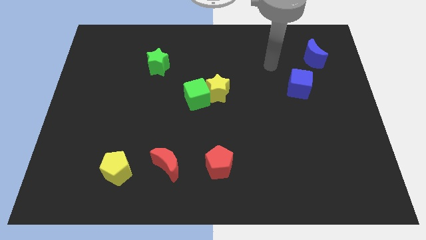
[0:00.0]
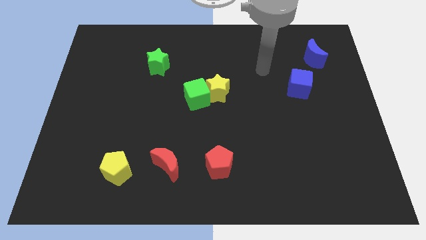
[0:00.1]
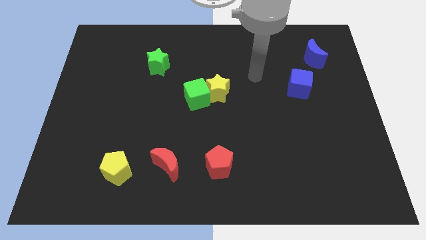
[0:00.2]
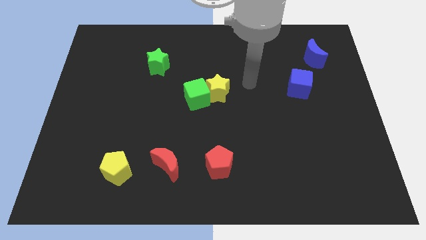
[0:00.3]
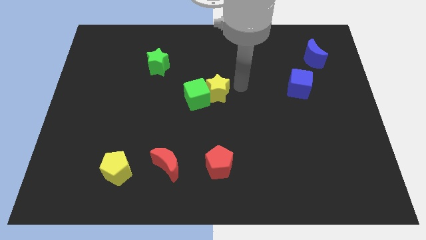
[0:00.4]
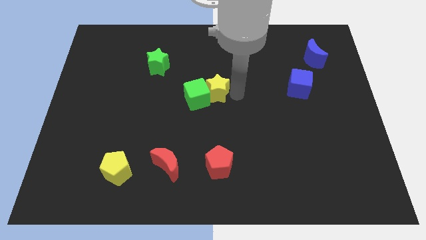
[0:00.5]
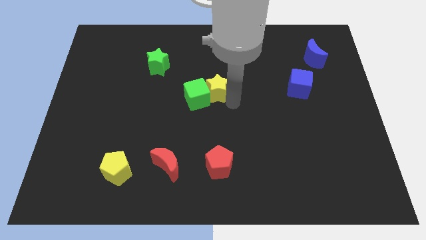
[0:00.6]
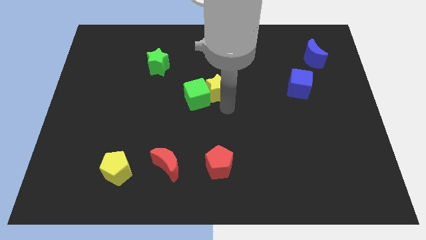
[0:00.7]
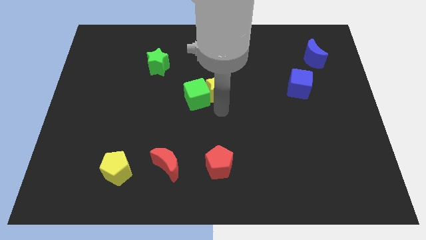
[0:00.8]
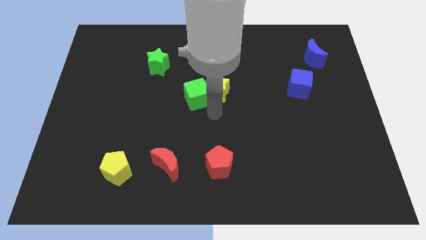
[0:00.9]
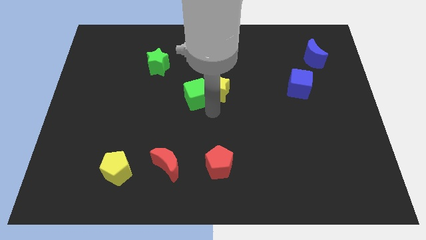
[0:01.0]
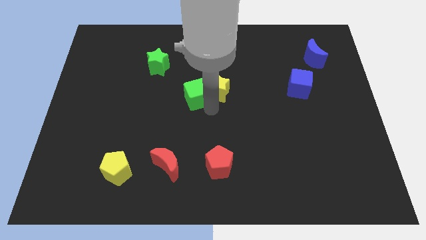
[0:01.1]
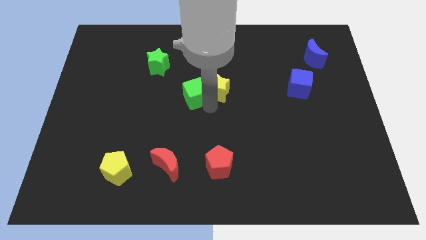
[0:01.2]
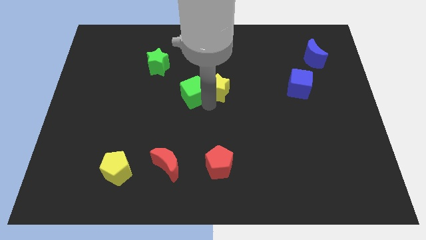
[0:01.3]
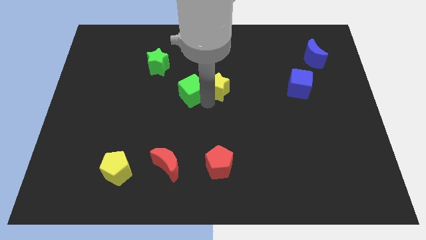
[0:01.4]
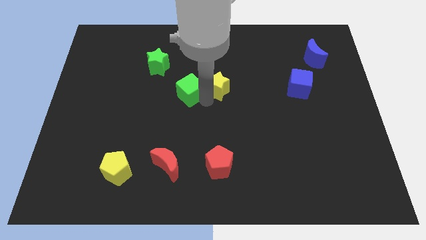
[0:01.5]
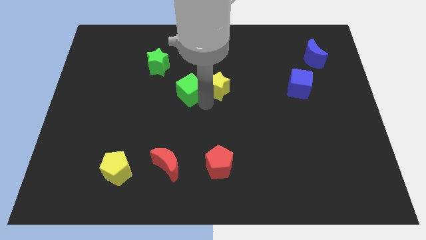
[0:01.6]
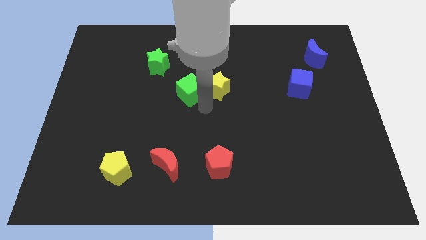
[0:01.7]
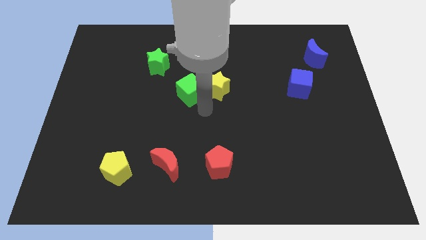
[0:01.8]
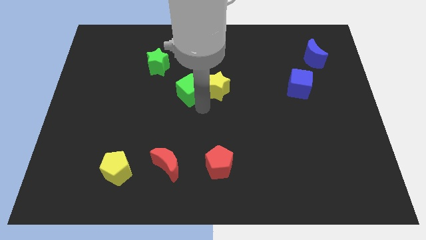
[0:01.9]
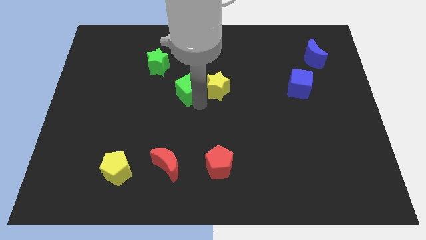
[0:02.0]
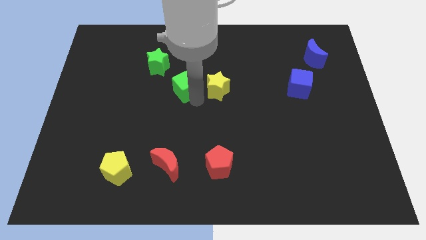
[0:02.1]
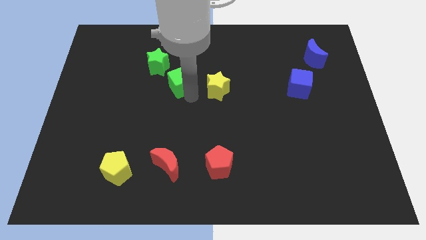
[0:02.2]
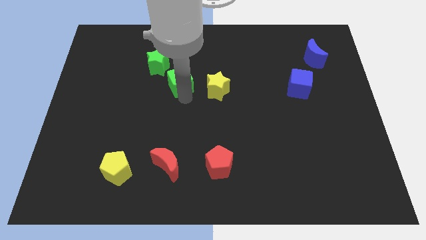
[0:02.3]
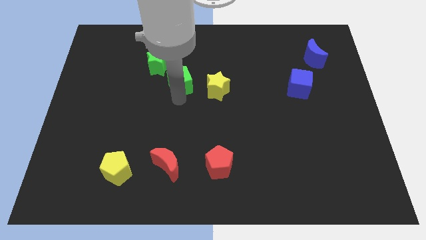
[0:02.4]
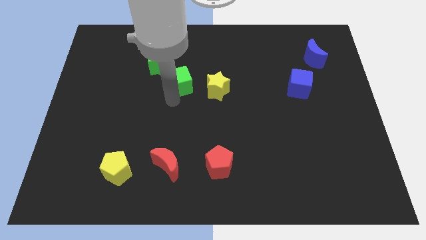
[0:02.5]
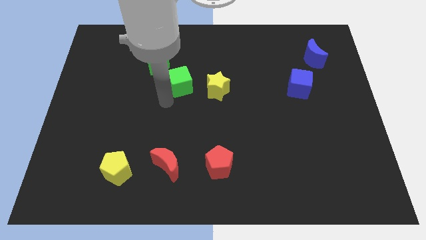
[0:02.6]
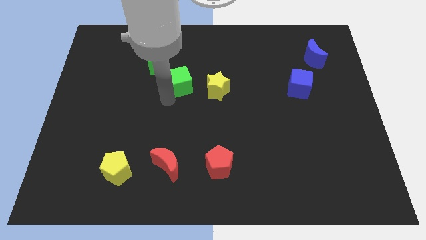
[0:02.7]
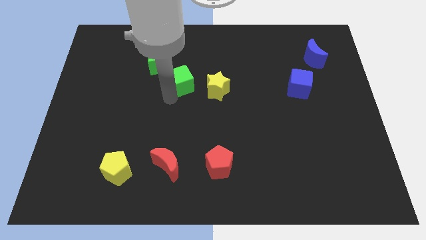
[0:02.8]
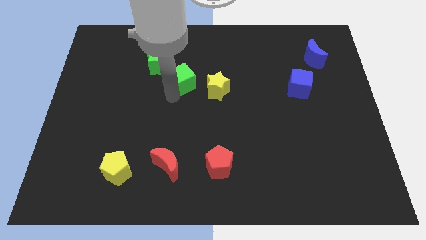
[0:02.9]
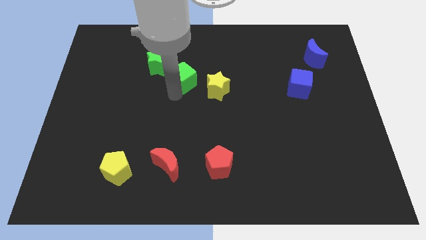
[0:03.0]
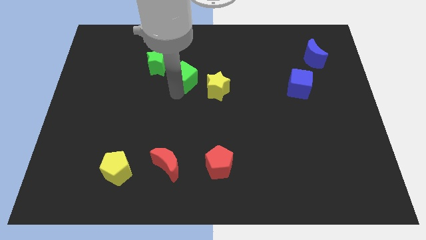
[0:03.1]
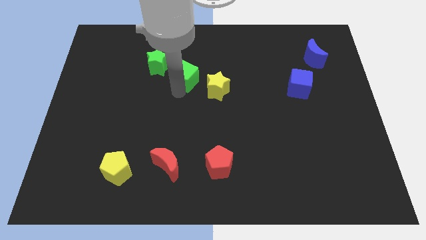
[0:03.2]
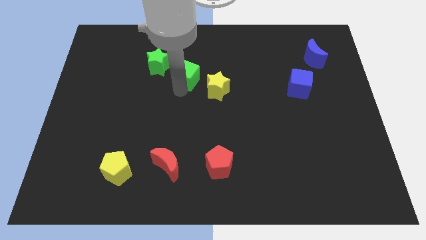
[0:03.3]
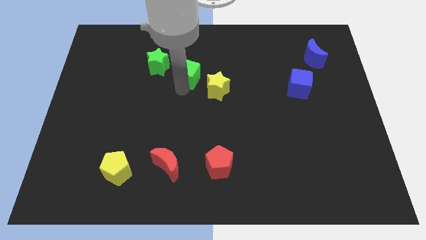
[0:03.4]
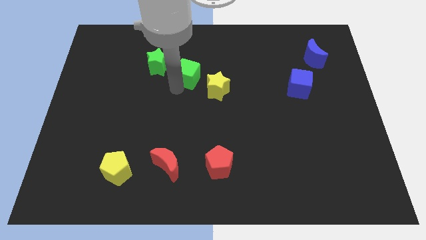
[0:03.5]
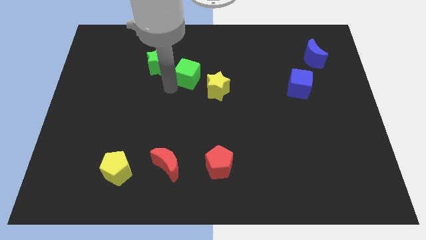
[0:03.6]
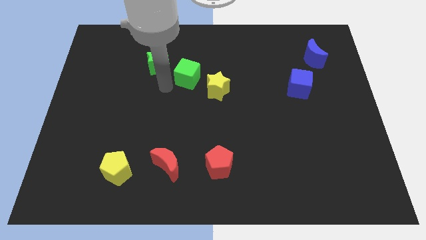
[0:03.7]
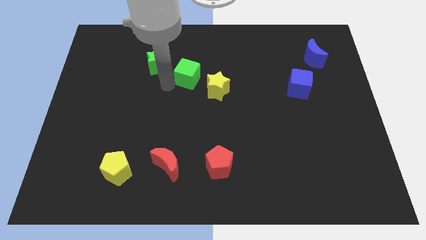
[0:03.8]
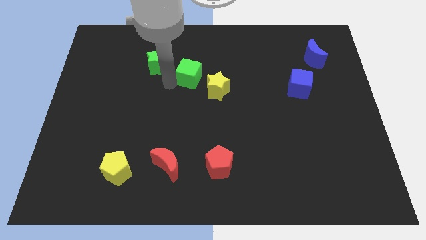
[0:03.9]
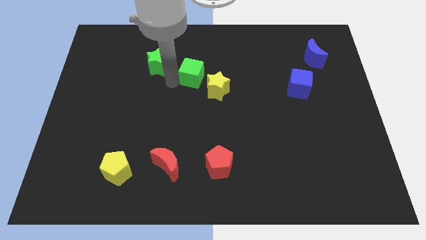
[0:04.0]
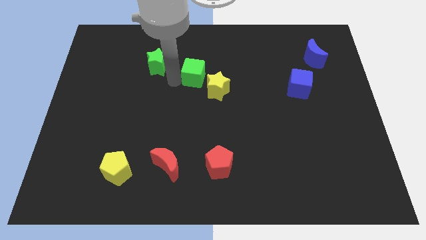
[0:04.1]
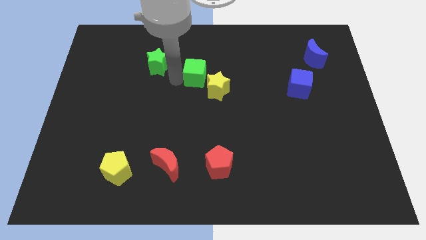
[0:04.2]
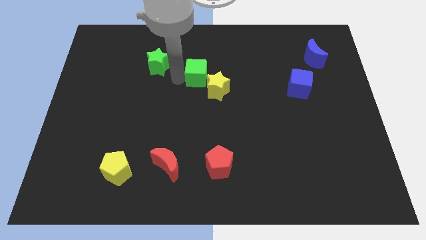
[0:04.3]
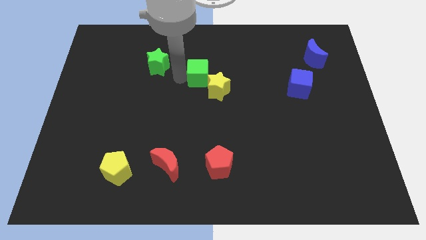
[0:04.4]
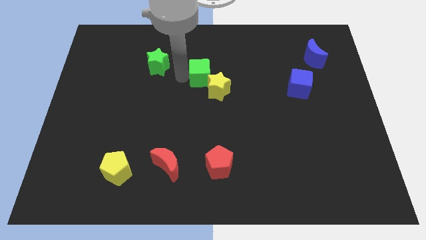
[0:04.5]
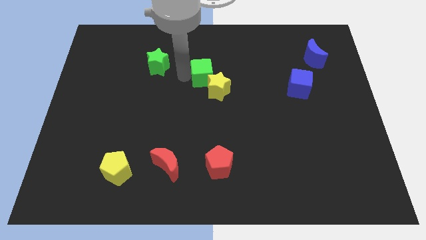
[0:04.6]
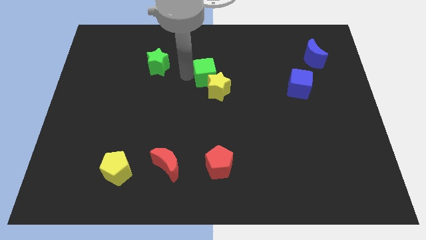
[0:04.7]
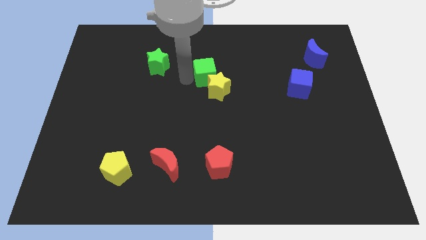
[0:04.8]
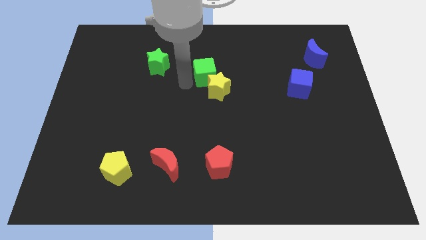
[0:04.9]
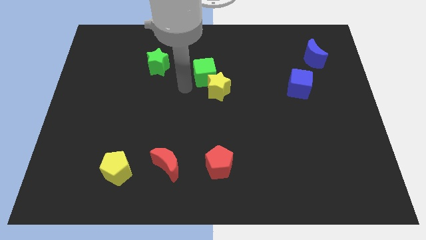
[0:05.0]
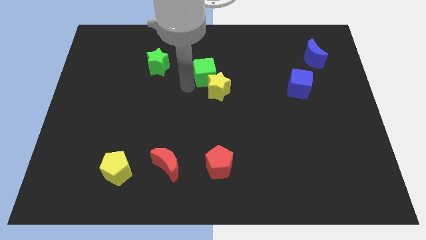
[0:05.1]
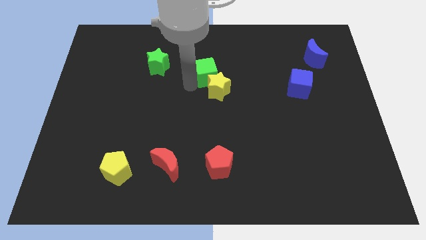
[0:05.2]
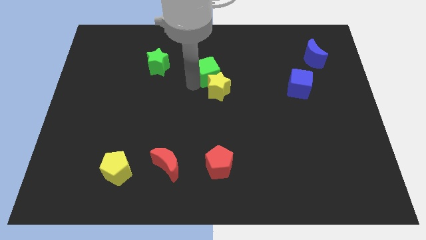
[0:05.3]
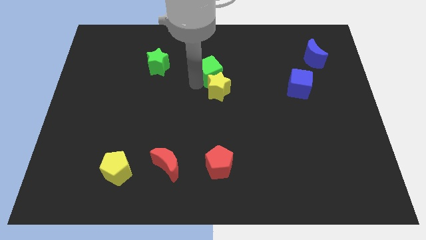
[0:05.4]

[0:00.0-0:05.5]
push the green cube upwards and then to the right a little bit

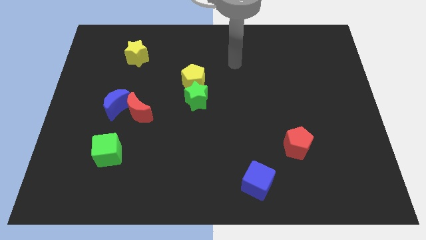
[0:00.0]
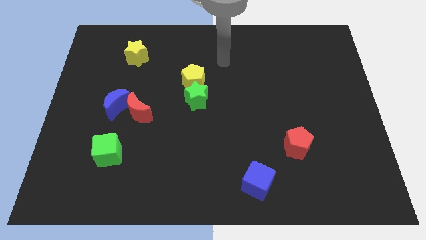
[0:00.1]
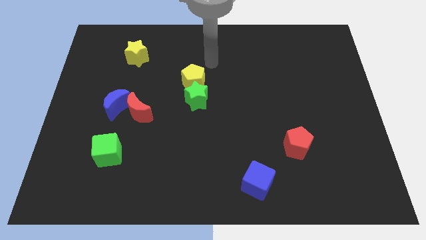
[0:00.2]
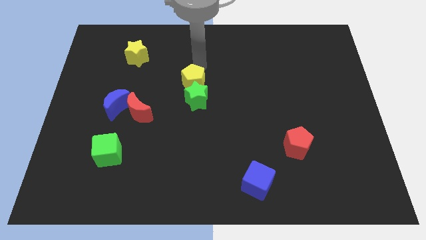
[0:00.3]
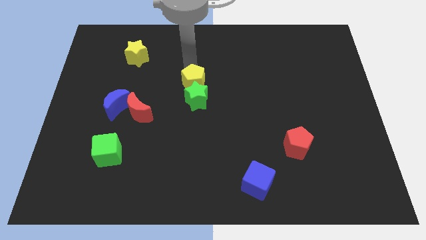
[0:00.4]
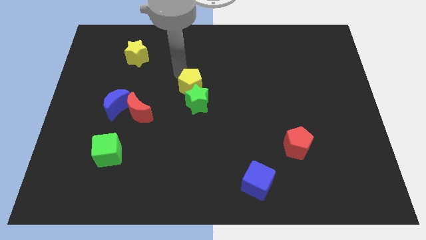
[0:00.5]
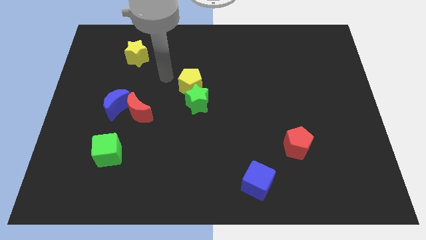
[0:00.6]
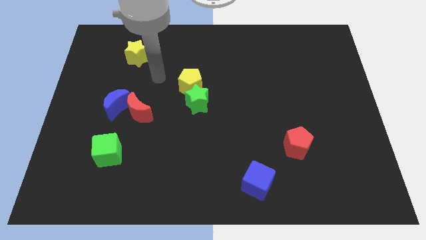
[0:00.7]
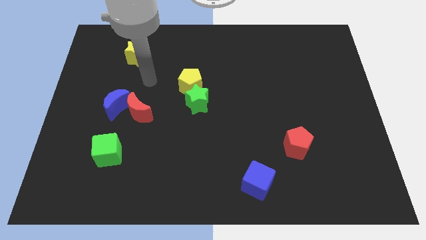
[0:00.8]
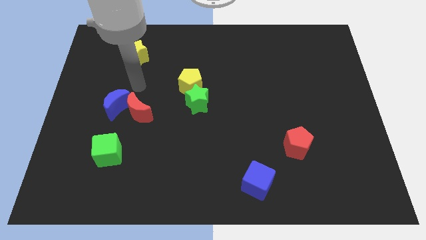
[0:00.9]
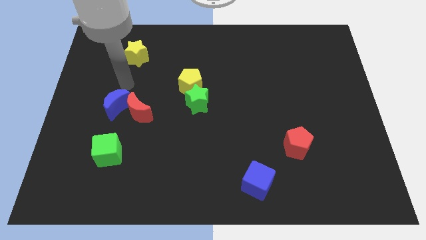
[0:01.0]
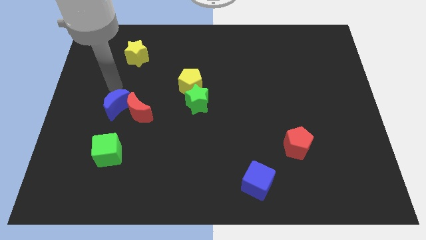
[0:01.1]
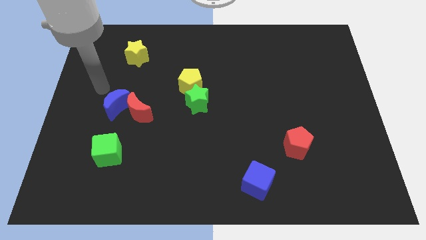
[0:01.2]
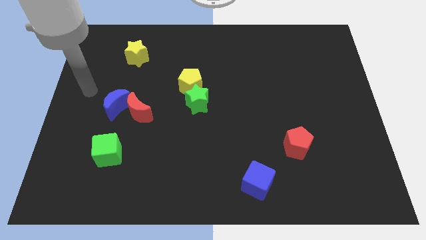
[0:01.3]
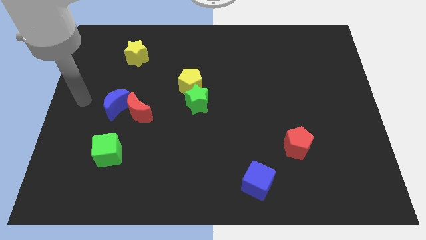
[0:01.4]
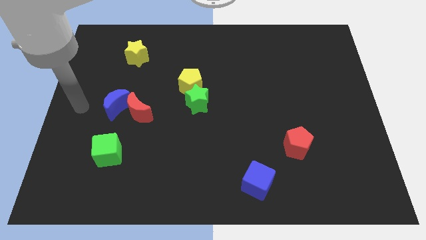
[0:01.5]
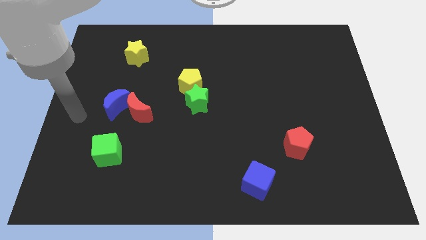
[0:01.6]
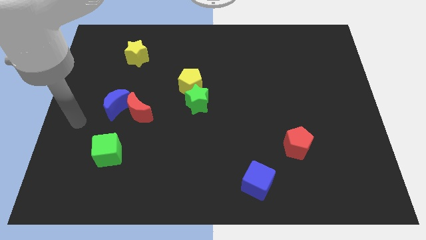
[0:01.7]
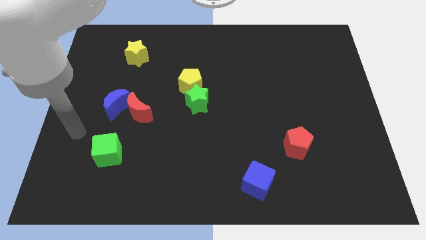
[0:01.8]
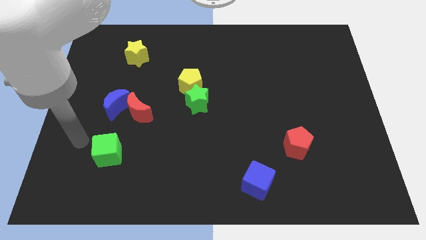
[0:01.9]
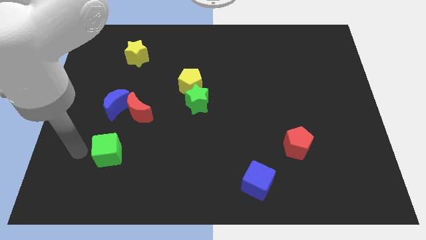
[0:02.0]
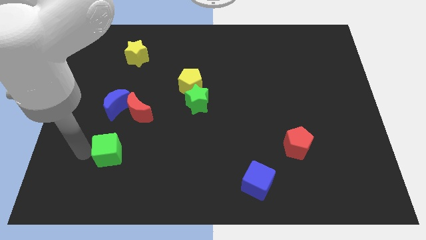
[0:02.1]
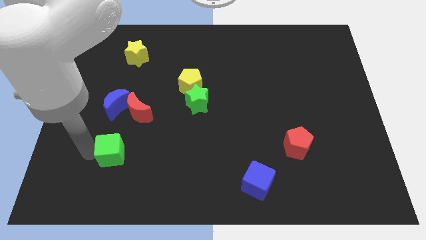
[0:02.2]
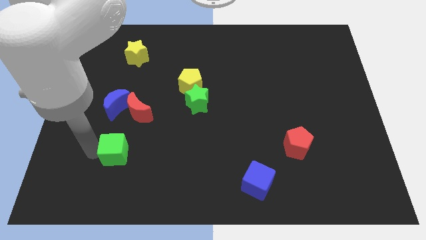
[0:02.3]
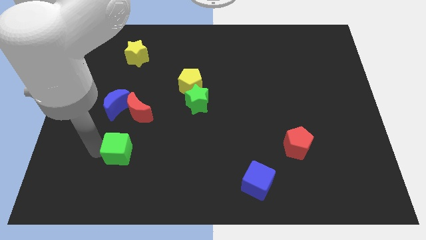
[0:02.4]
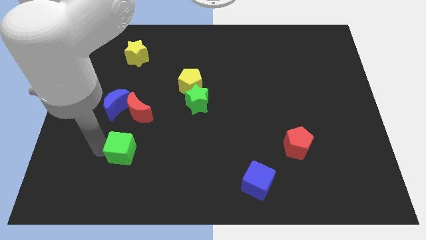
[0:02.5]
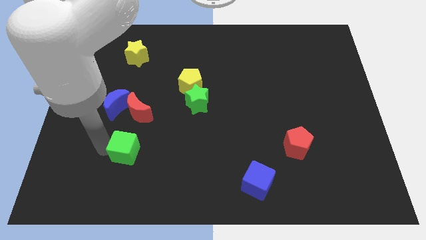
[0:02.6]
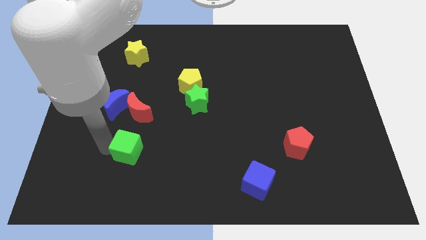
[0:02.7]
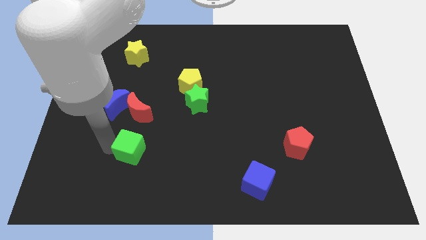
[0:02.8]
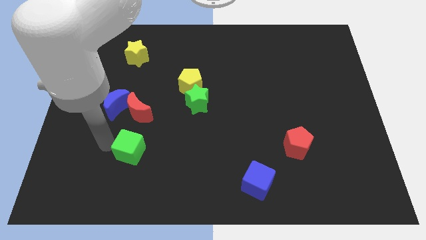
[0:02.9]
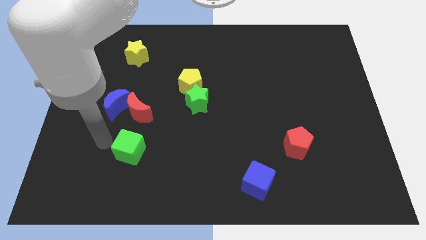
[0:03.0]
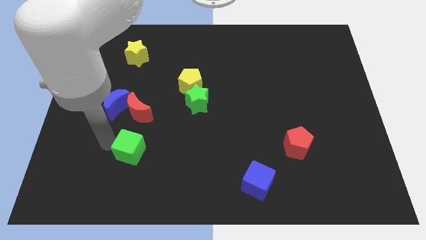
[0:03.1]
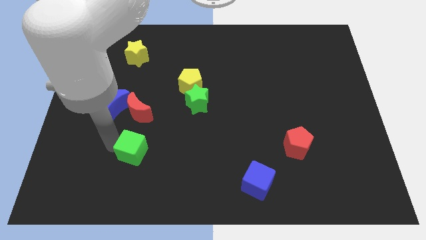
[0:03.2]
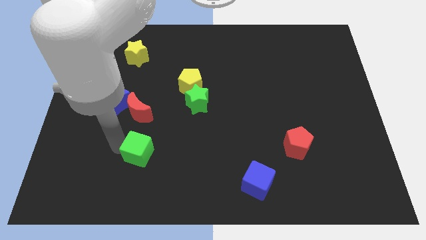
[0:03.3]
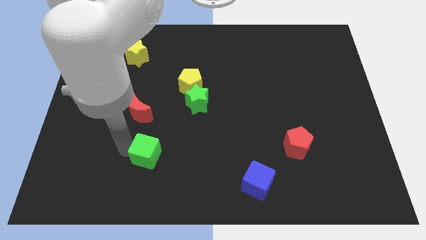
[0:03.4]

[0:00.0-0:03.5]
slide the green cube slightly to the right
